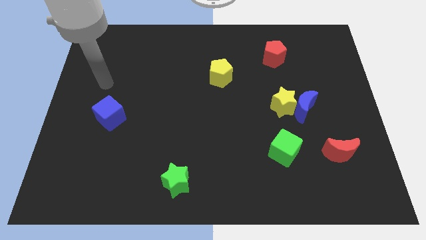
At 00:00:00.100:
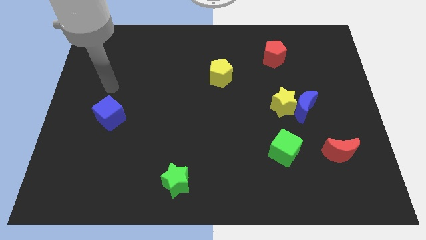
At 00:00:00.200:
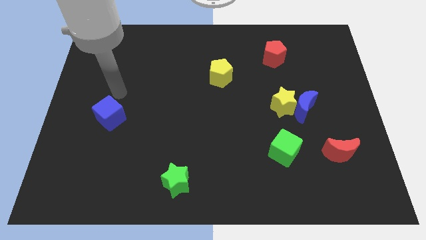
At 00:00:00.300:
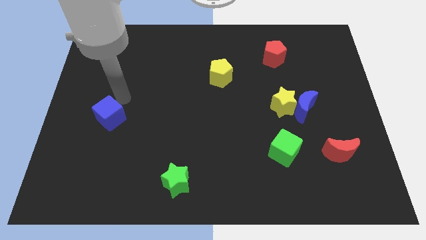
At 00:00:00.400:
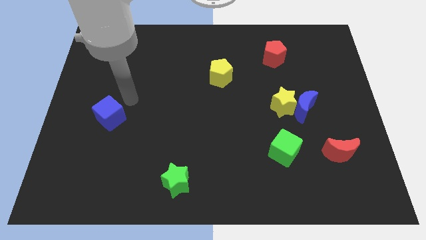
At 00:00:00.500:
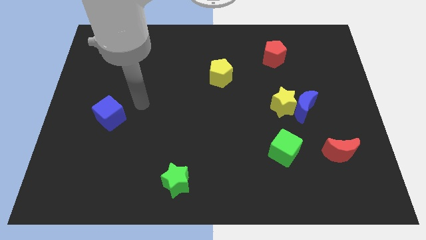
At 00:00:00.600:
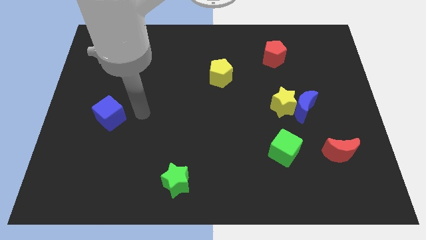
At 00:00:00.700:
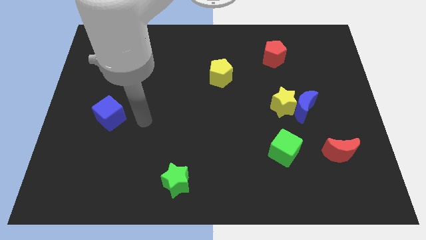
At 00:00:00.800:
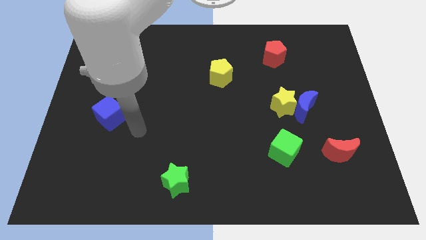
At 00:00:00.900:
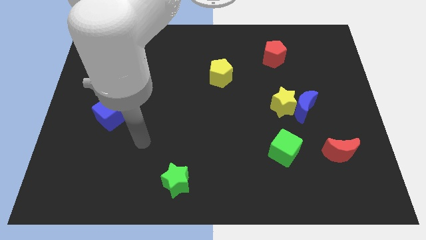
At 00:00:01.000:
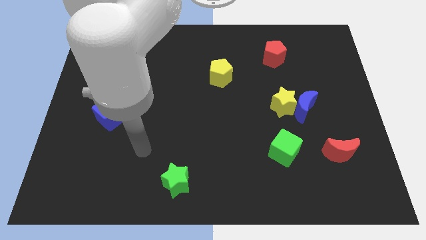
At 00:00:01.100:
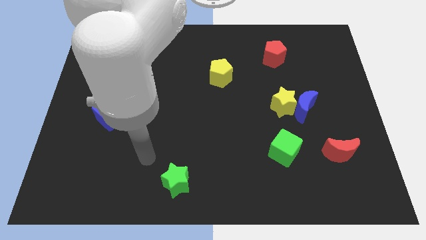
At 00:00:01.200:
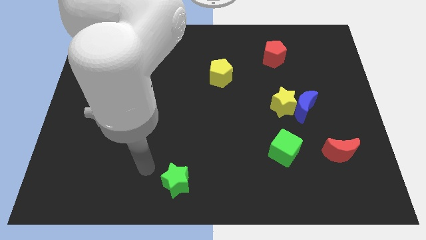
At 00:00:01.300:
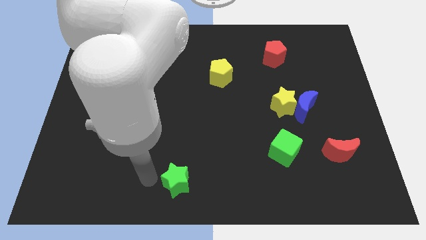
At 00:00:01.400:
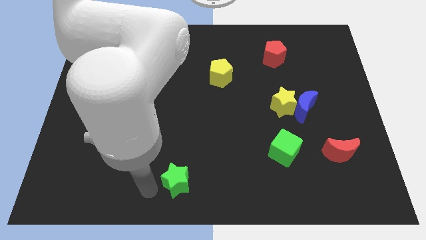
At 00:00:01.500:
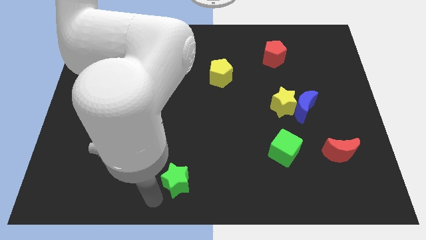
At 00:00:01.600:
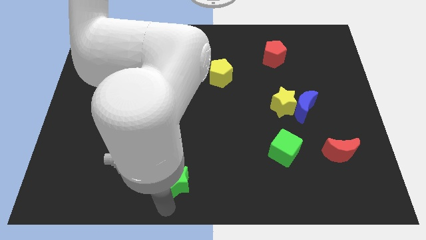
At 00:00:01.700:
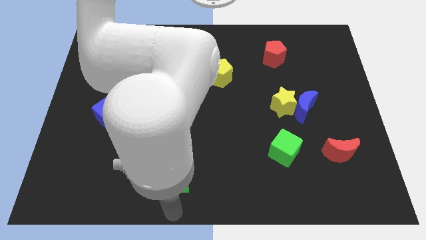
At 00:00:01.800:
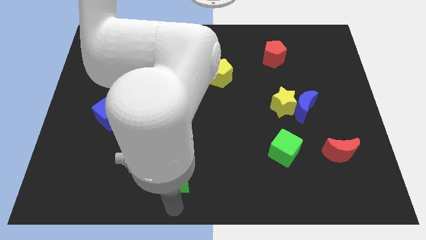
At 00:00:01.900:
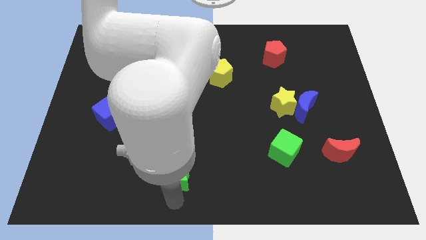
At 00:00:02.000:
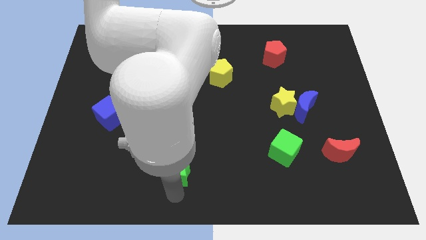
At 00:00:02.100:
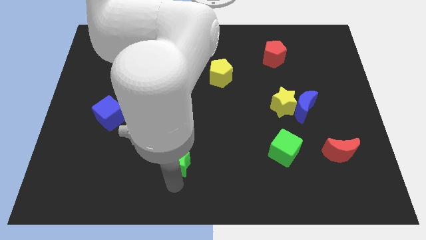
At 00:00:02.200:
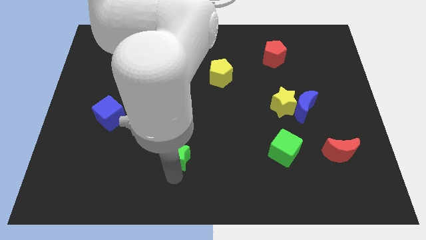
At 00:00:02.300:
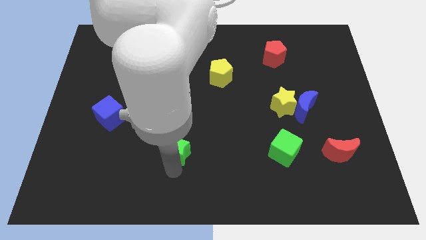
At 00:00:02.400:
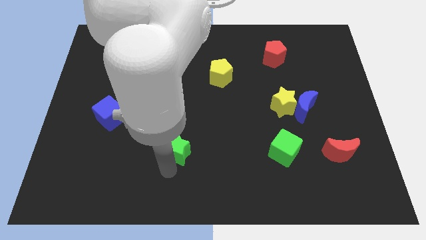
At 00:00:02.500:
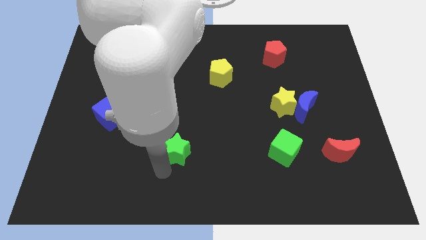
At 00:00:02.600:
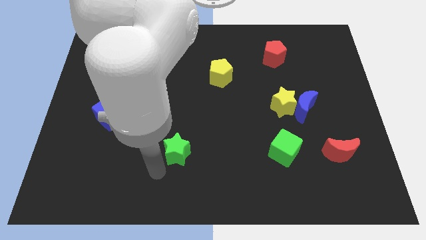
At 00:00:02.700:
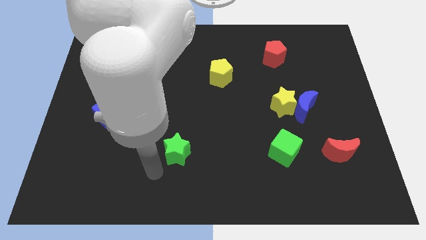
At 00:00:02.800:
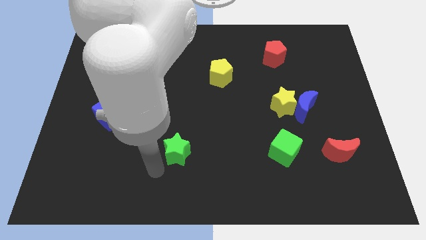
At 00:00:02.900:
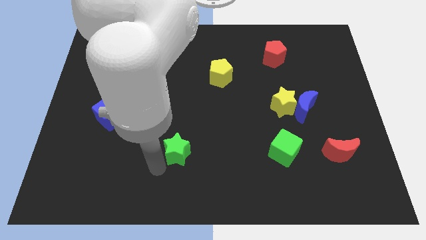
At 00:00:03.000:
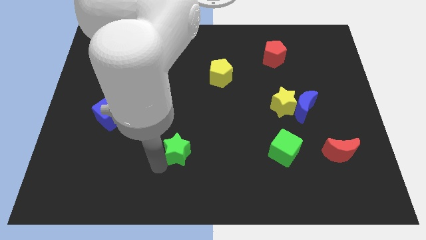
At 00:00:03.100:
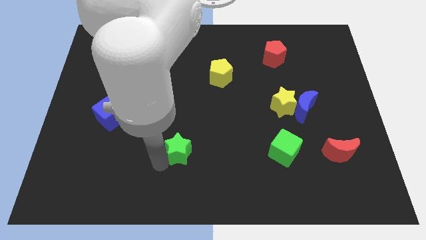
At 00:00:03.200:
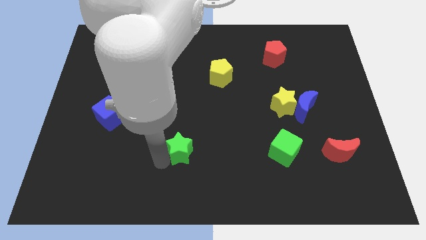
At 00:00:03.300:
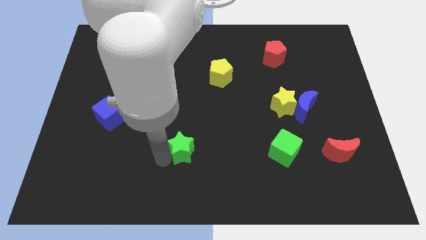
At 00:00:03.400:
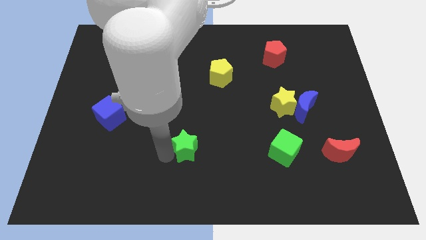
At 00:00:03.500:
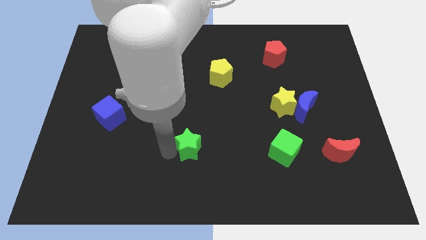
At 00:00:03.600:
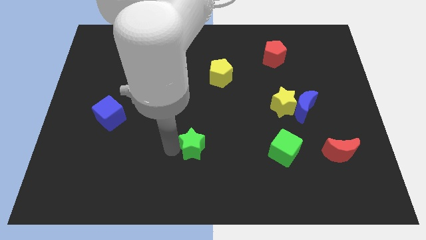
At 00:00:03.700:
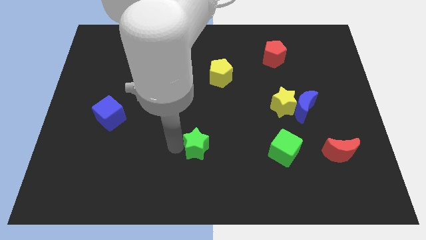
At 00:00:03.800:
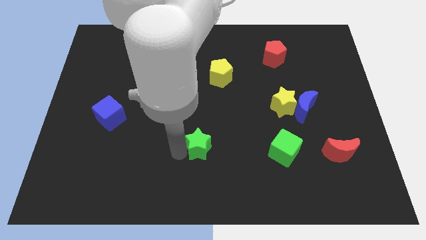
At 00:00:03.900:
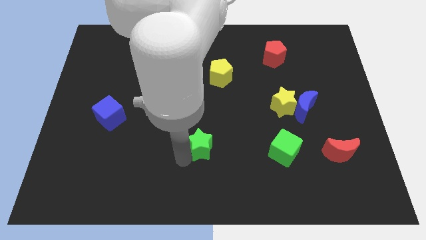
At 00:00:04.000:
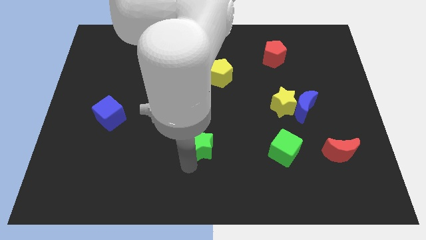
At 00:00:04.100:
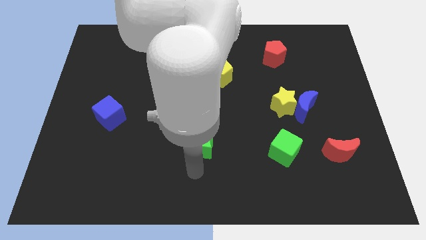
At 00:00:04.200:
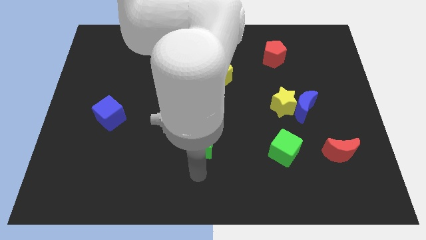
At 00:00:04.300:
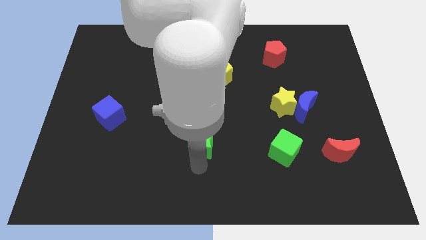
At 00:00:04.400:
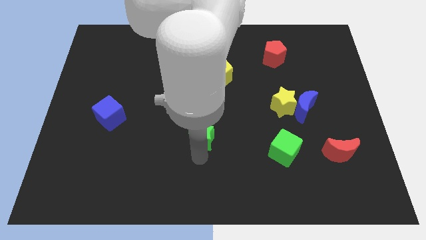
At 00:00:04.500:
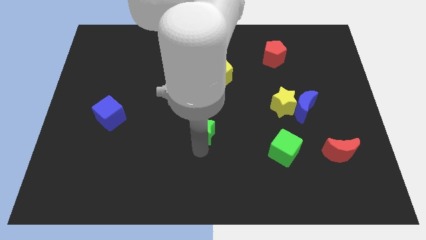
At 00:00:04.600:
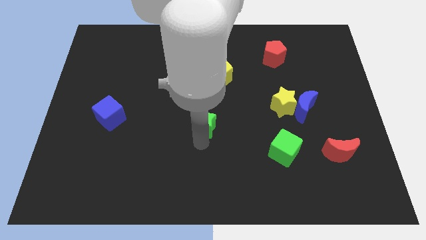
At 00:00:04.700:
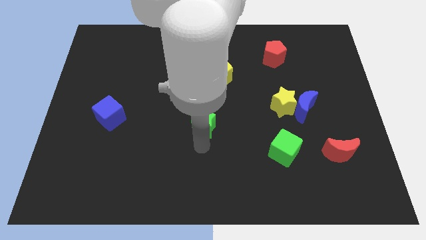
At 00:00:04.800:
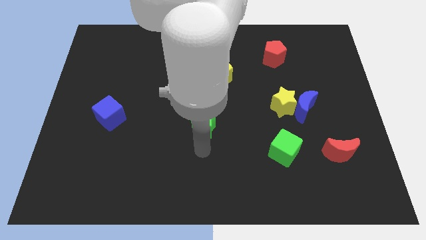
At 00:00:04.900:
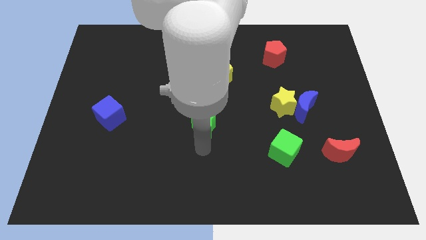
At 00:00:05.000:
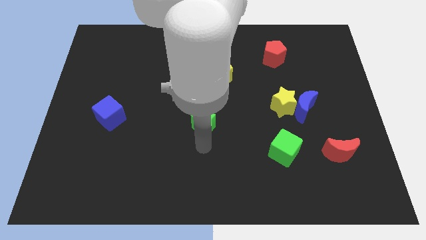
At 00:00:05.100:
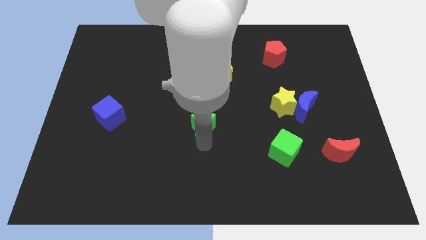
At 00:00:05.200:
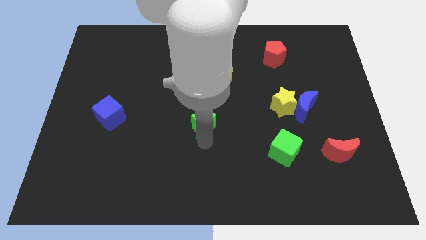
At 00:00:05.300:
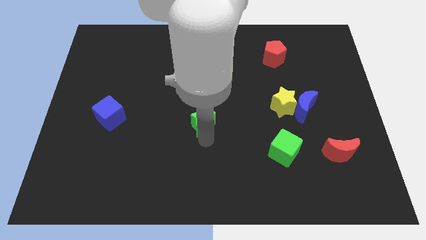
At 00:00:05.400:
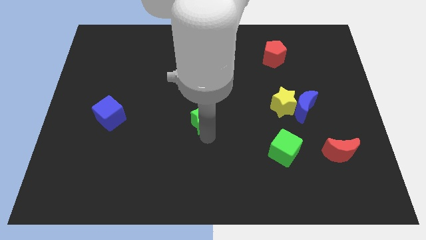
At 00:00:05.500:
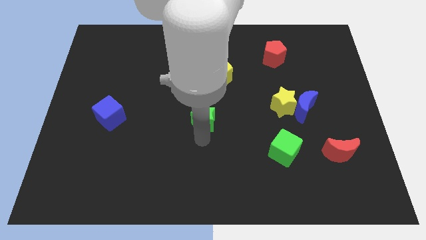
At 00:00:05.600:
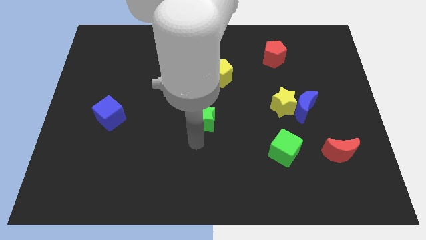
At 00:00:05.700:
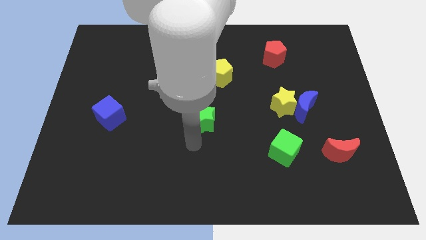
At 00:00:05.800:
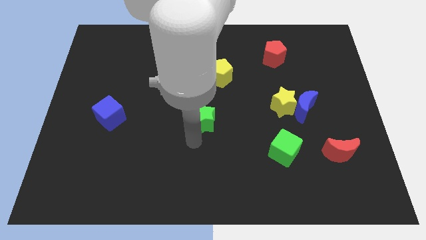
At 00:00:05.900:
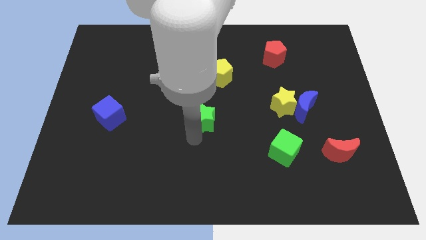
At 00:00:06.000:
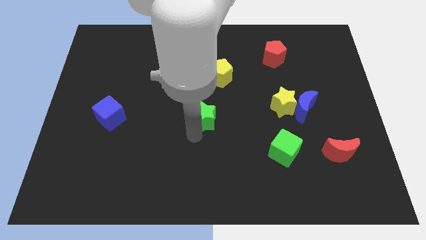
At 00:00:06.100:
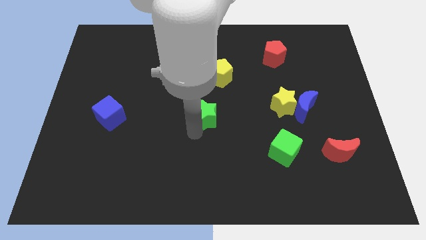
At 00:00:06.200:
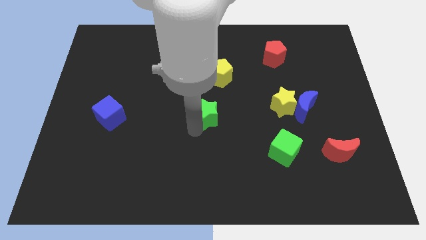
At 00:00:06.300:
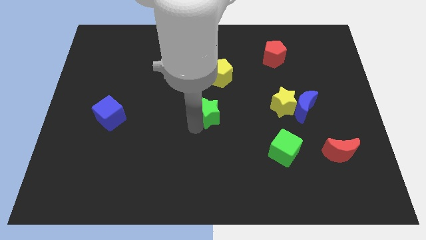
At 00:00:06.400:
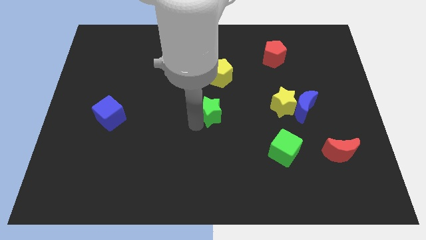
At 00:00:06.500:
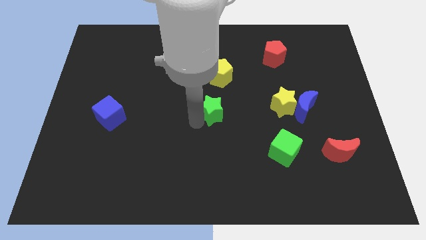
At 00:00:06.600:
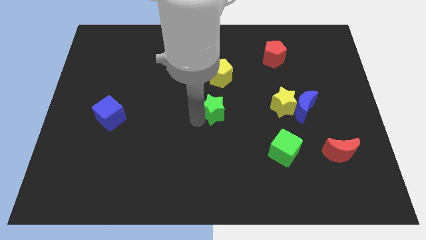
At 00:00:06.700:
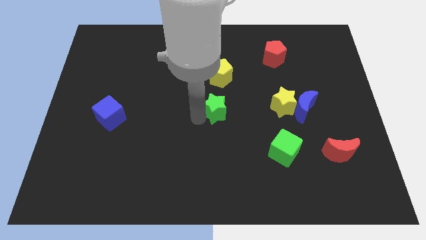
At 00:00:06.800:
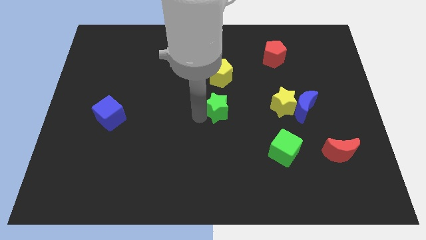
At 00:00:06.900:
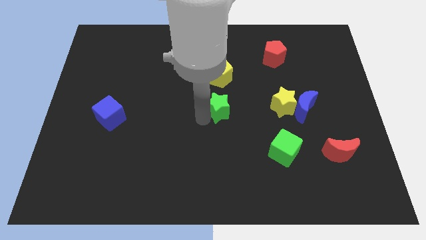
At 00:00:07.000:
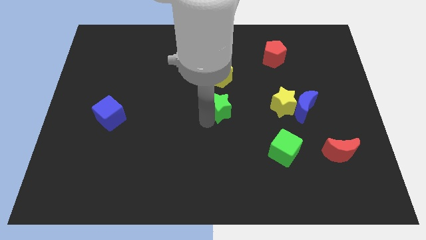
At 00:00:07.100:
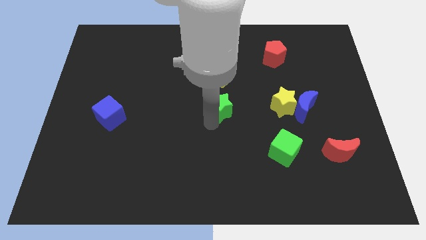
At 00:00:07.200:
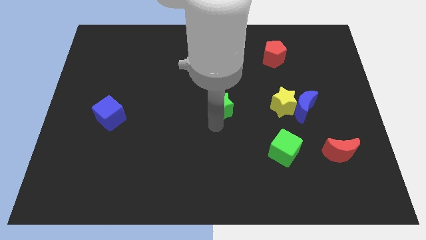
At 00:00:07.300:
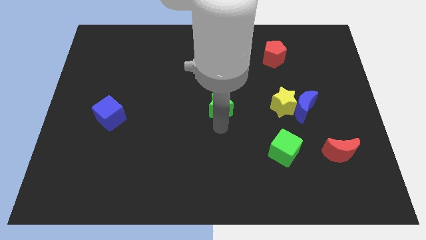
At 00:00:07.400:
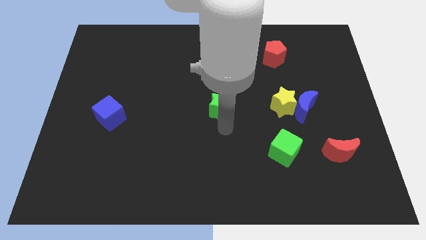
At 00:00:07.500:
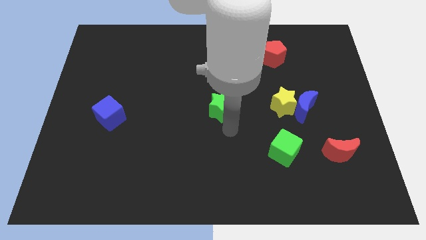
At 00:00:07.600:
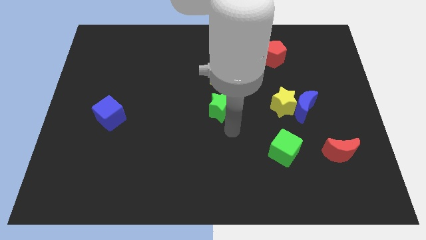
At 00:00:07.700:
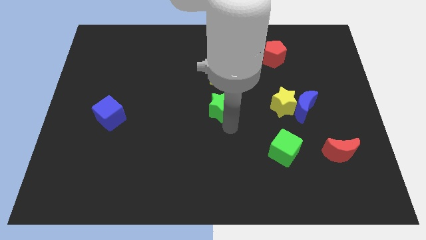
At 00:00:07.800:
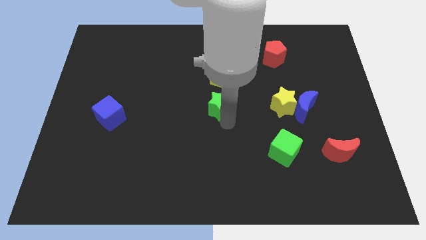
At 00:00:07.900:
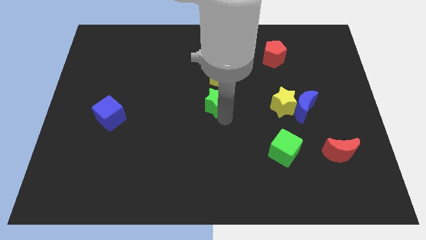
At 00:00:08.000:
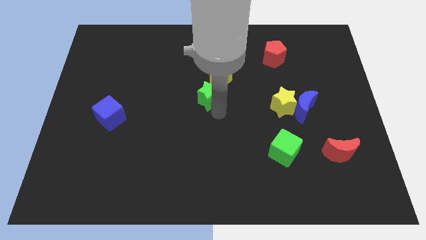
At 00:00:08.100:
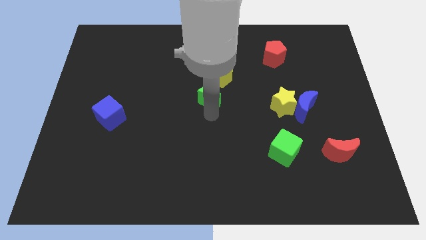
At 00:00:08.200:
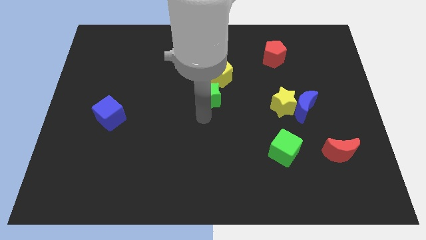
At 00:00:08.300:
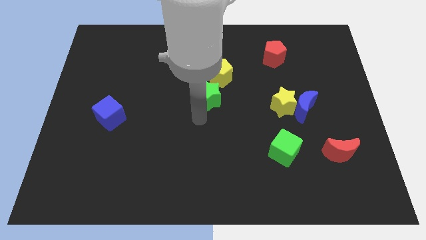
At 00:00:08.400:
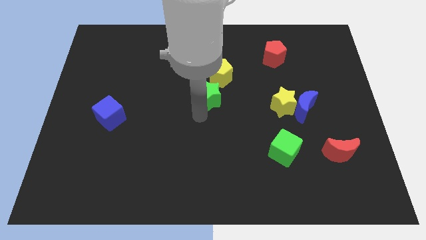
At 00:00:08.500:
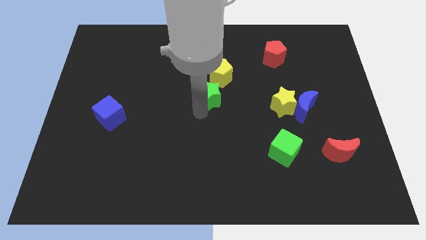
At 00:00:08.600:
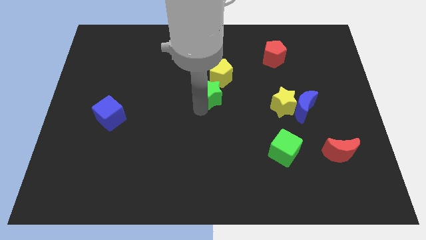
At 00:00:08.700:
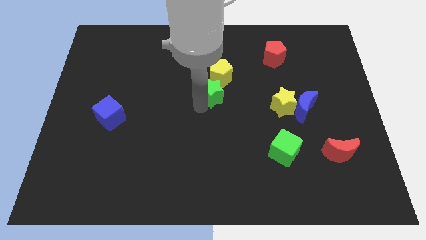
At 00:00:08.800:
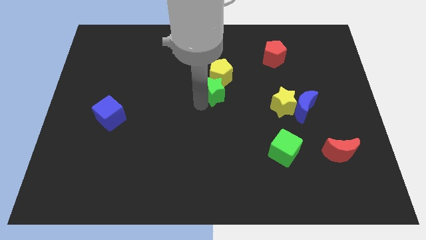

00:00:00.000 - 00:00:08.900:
put the green star close to the yellow pentagon
